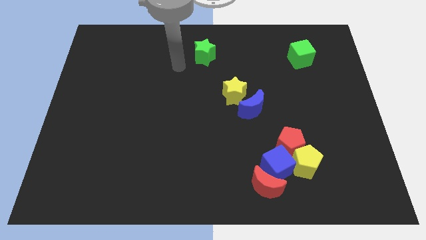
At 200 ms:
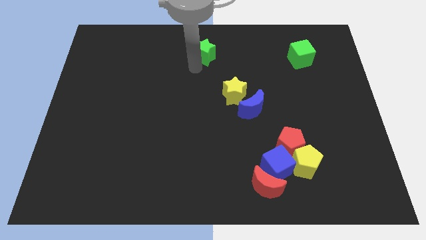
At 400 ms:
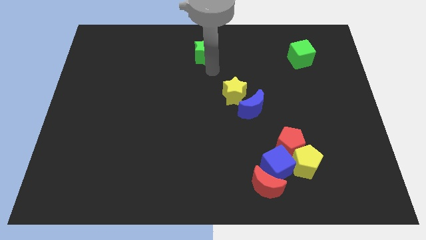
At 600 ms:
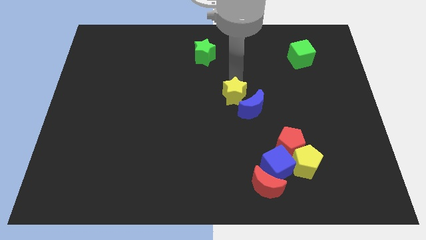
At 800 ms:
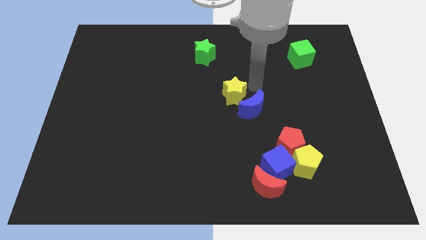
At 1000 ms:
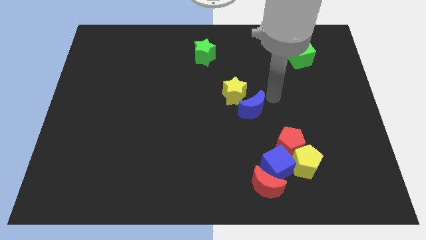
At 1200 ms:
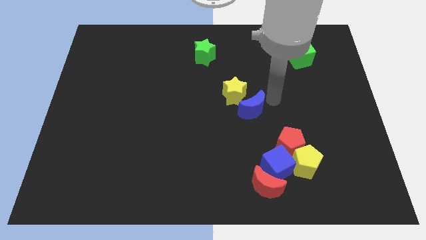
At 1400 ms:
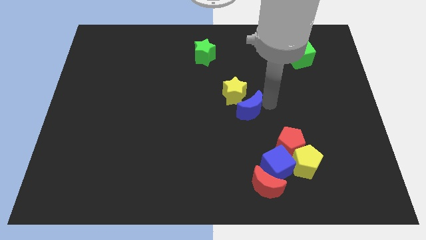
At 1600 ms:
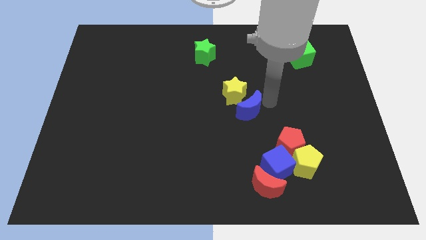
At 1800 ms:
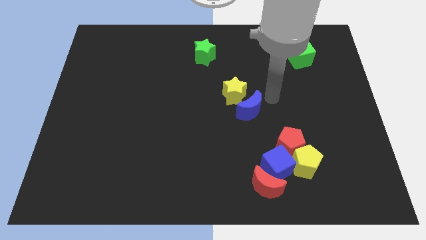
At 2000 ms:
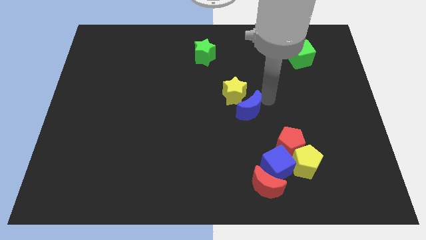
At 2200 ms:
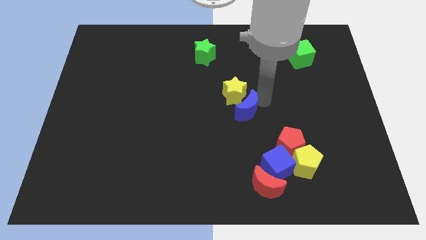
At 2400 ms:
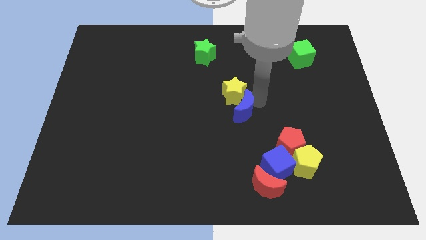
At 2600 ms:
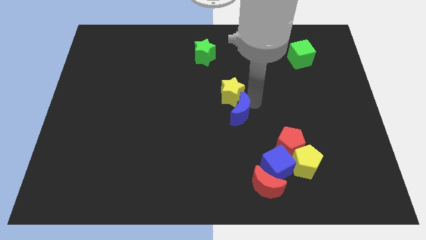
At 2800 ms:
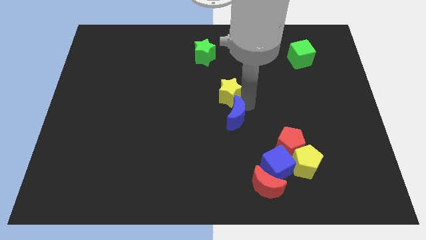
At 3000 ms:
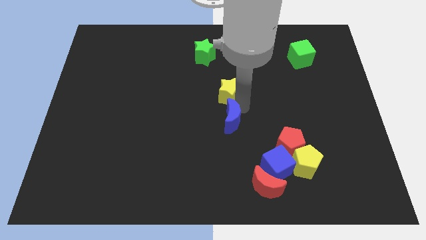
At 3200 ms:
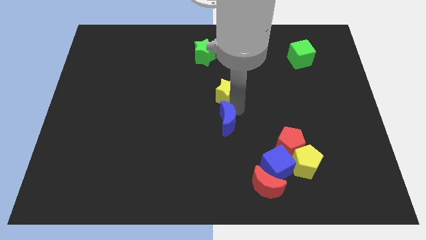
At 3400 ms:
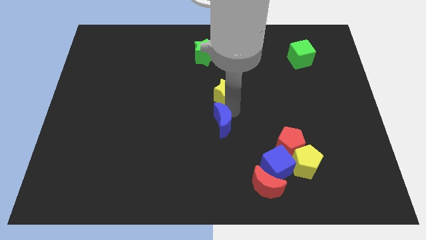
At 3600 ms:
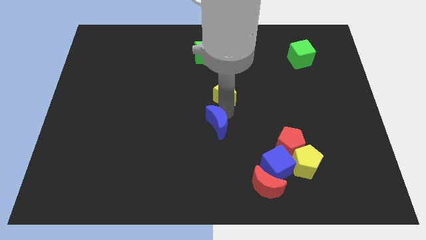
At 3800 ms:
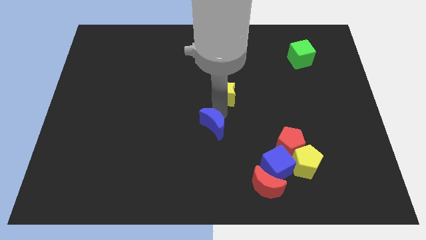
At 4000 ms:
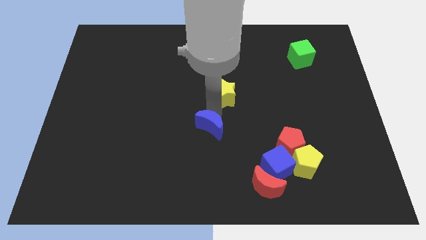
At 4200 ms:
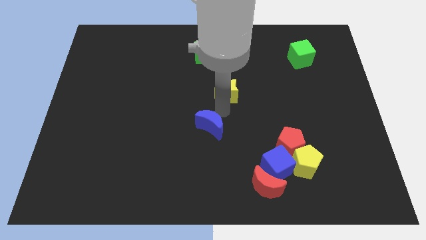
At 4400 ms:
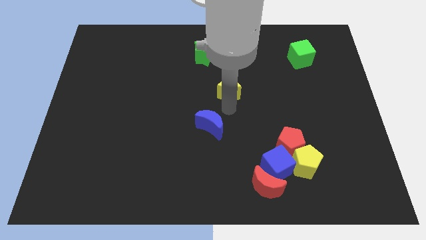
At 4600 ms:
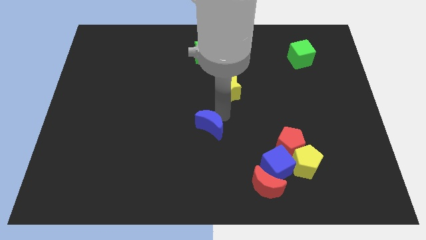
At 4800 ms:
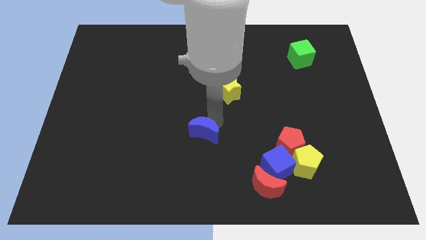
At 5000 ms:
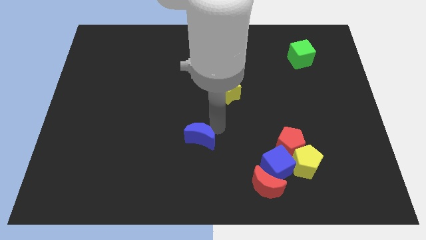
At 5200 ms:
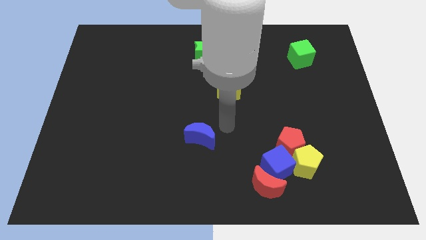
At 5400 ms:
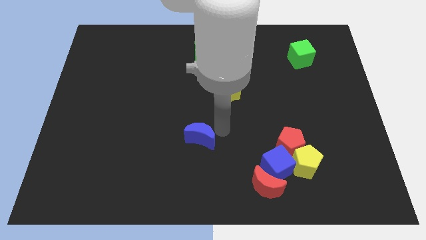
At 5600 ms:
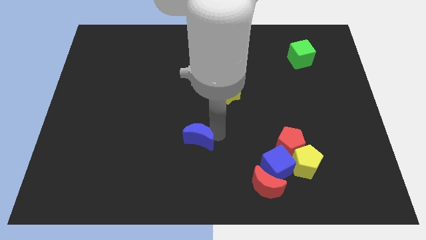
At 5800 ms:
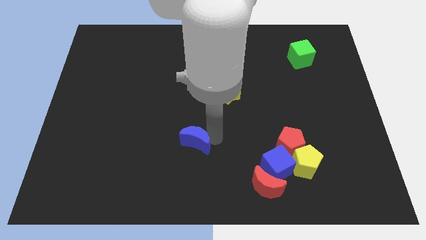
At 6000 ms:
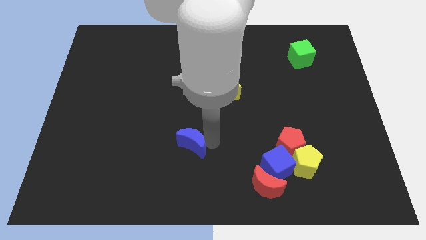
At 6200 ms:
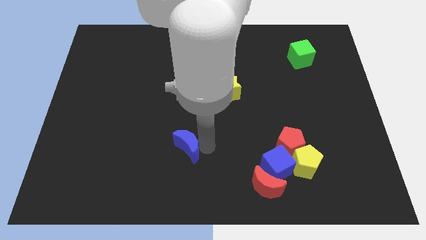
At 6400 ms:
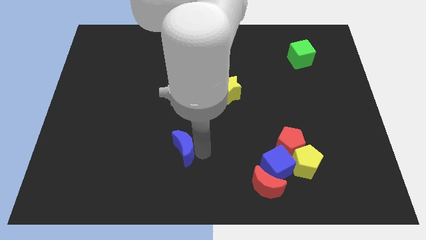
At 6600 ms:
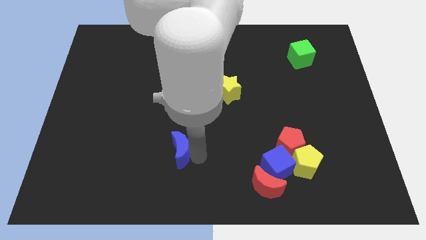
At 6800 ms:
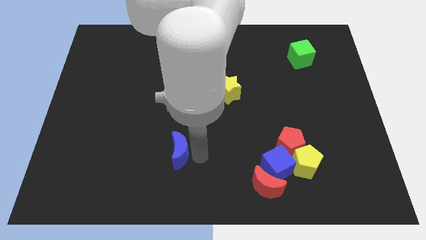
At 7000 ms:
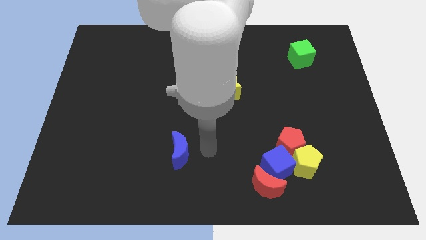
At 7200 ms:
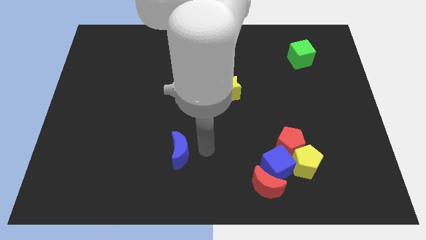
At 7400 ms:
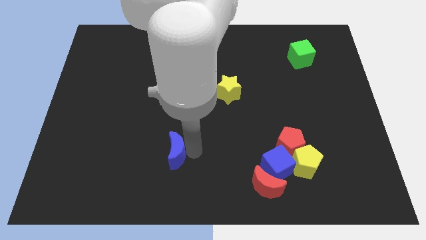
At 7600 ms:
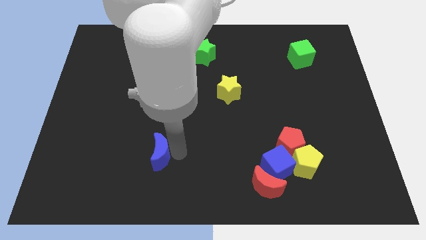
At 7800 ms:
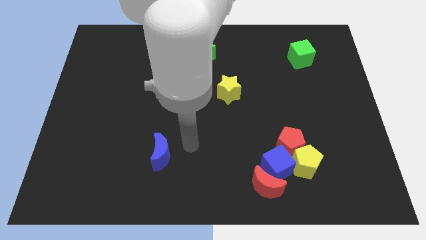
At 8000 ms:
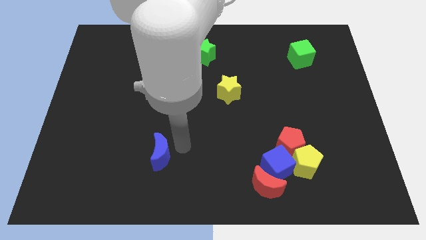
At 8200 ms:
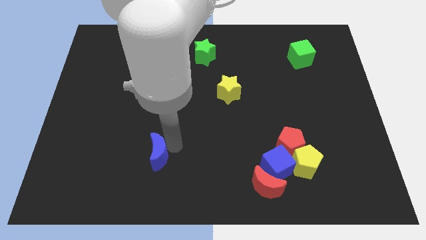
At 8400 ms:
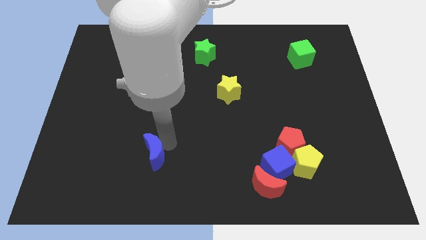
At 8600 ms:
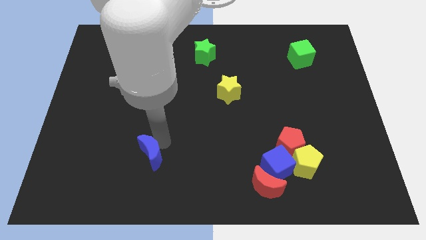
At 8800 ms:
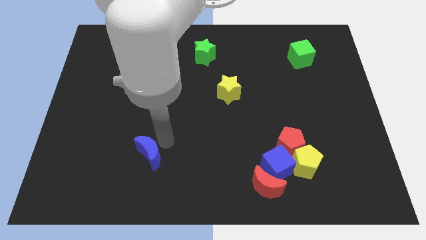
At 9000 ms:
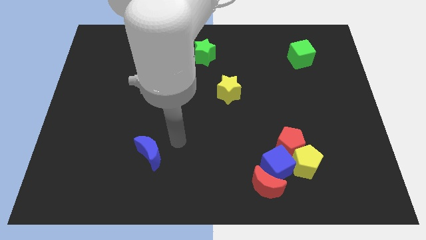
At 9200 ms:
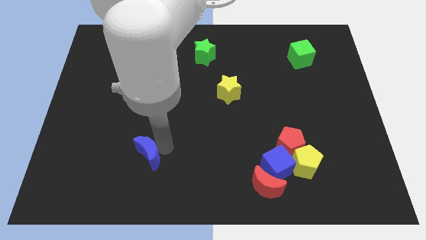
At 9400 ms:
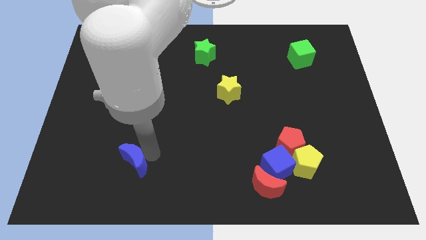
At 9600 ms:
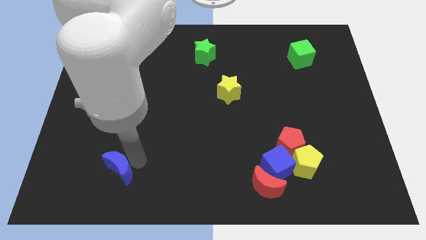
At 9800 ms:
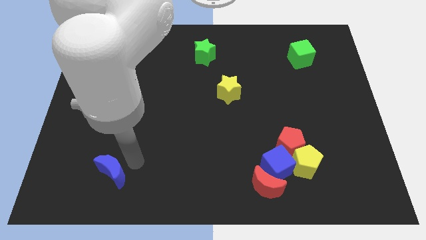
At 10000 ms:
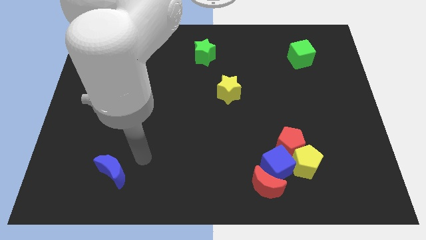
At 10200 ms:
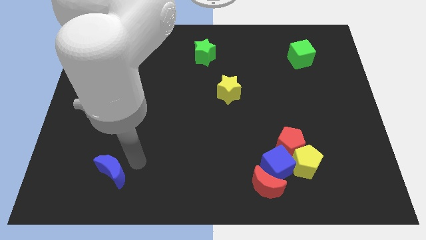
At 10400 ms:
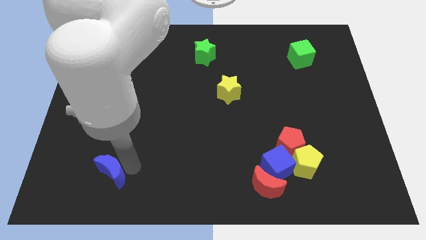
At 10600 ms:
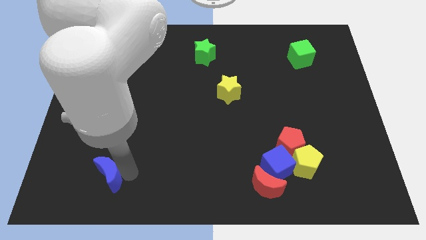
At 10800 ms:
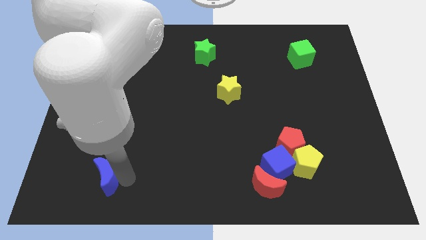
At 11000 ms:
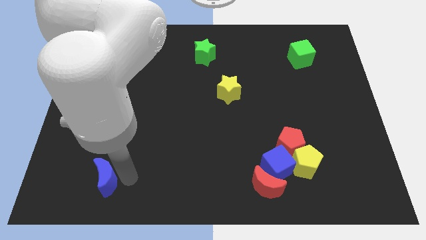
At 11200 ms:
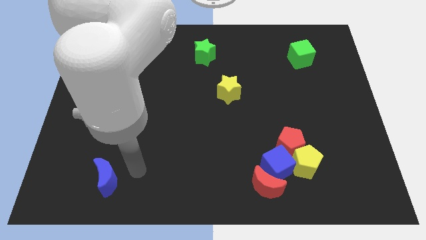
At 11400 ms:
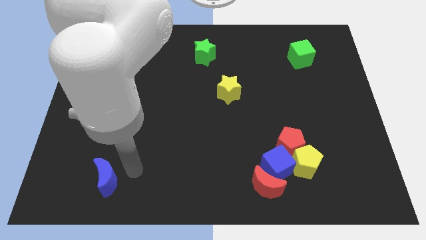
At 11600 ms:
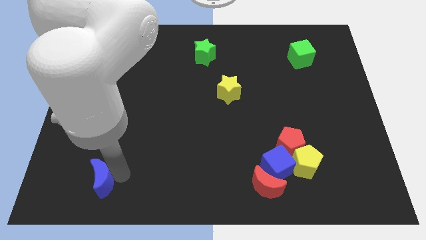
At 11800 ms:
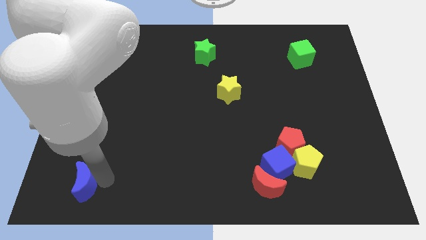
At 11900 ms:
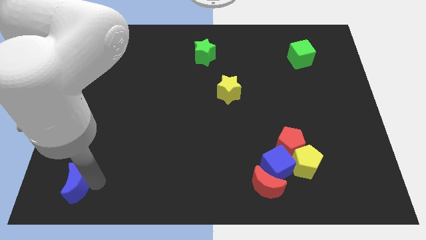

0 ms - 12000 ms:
slide the blue moon to the bottom left corner

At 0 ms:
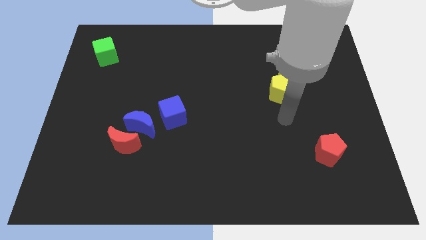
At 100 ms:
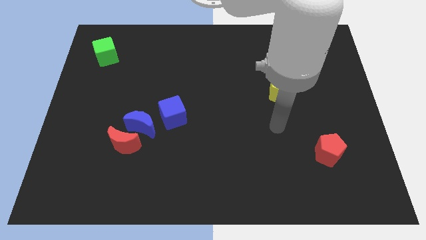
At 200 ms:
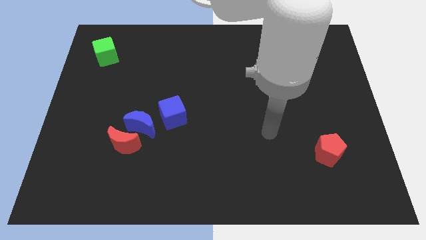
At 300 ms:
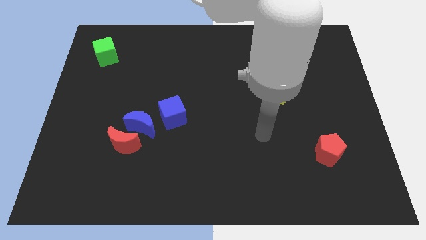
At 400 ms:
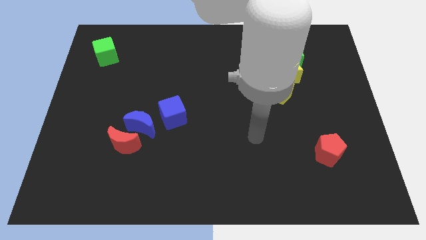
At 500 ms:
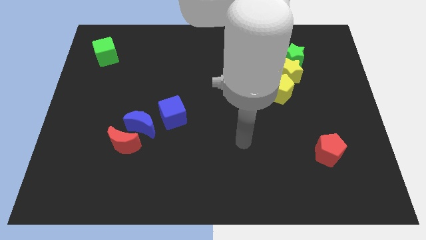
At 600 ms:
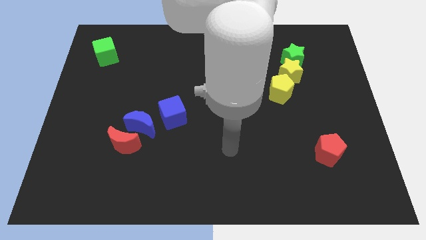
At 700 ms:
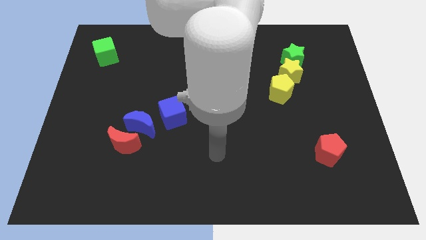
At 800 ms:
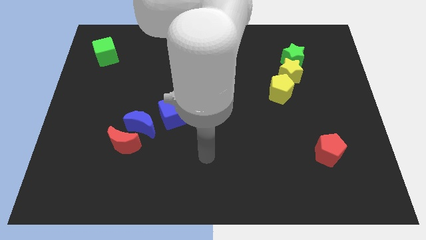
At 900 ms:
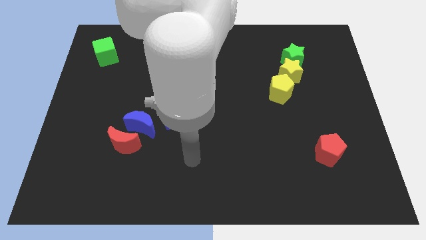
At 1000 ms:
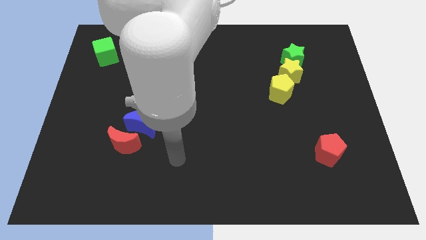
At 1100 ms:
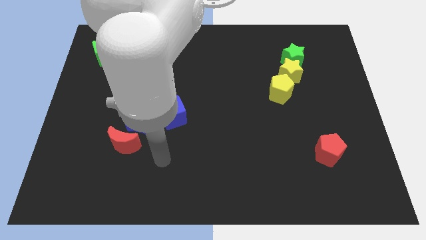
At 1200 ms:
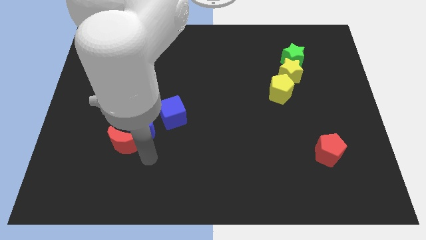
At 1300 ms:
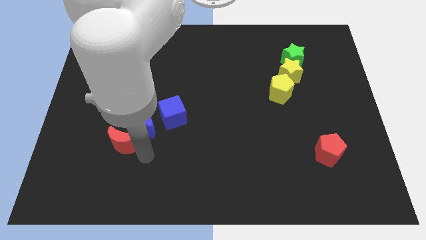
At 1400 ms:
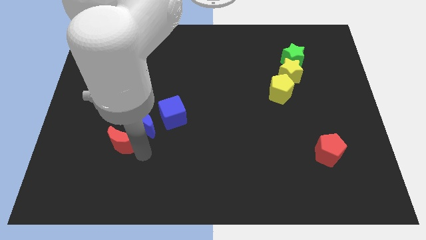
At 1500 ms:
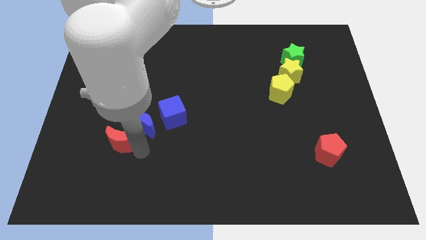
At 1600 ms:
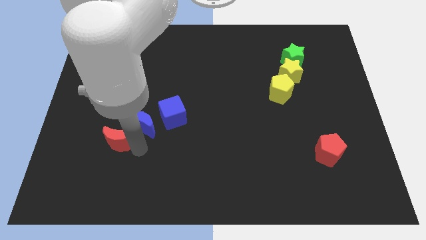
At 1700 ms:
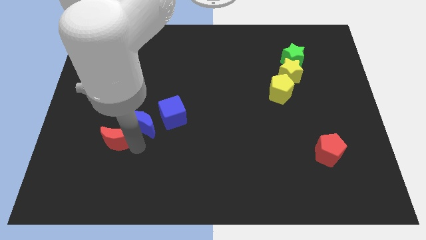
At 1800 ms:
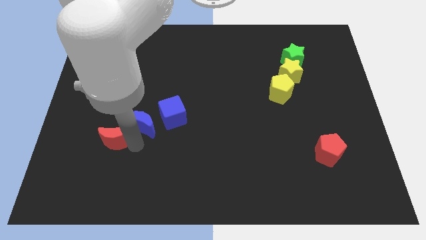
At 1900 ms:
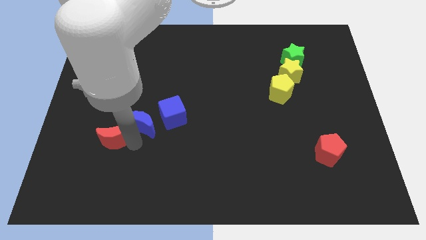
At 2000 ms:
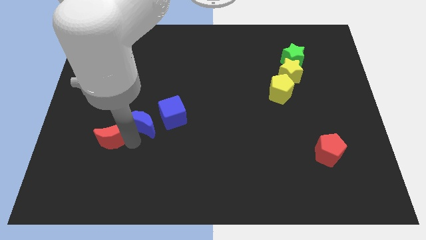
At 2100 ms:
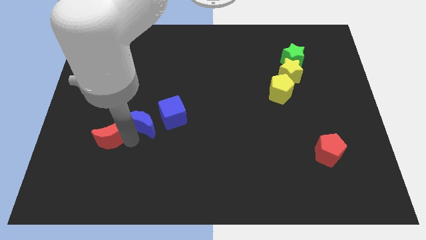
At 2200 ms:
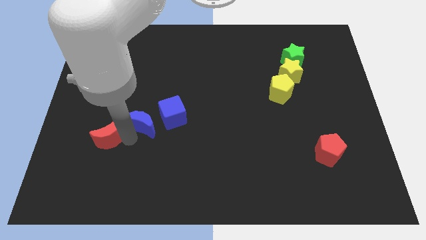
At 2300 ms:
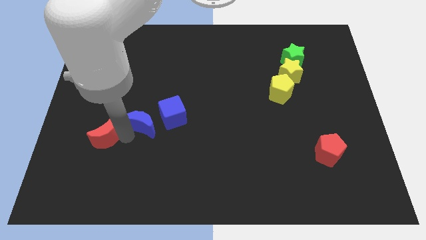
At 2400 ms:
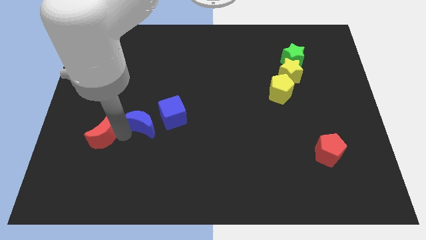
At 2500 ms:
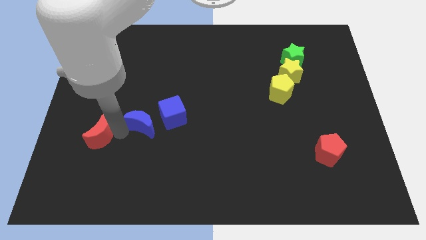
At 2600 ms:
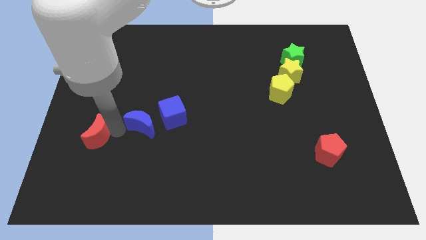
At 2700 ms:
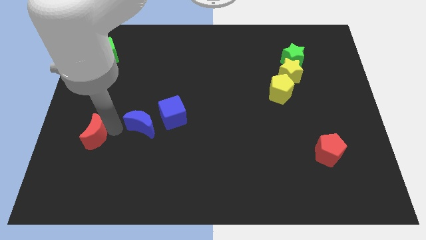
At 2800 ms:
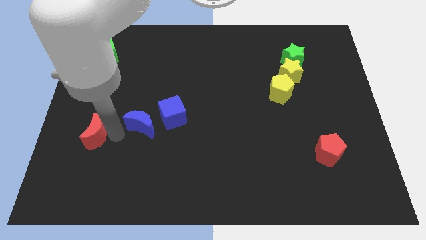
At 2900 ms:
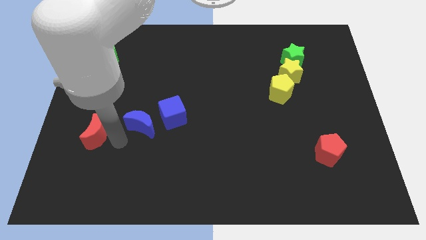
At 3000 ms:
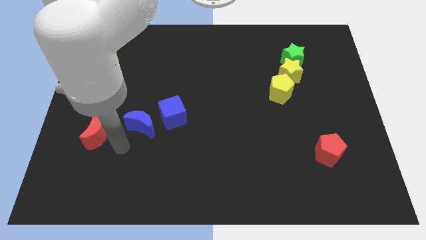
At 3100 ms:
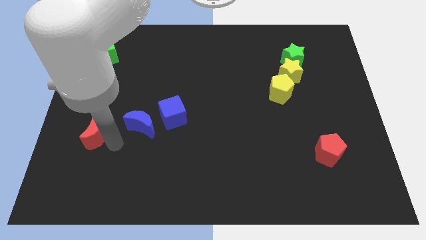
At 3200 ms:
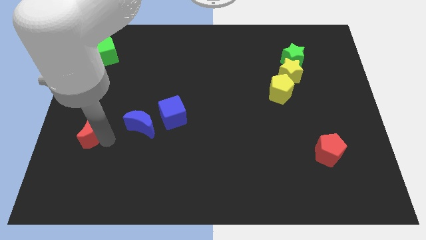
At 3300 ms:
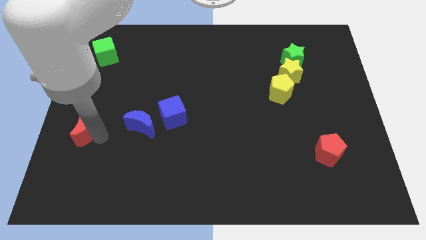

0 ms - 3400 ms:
slide the red moon to the left side
